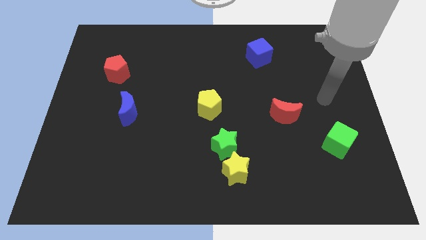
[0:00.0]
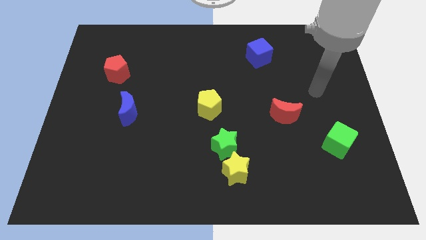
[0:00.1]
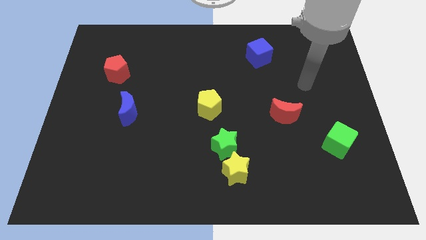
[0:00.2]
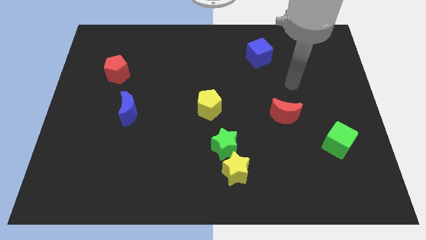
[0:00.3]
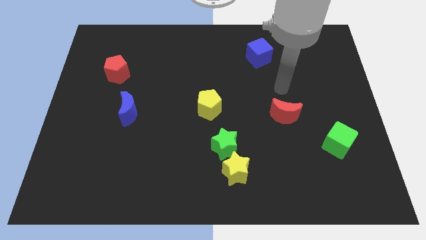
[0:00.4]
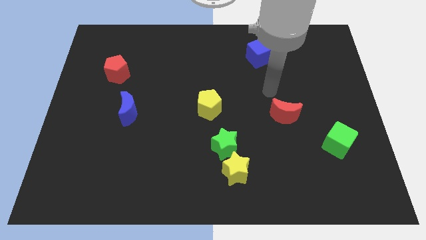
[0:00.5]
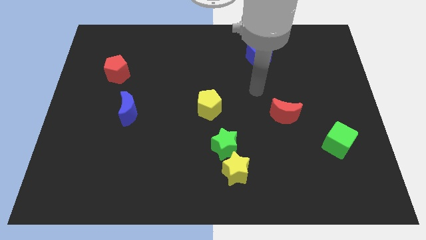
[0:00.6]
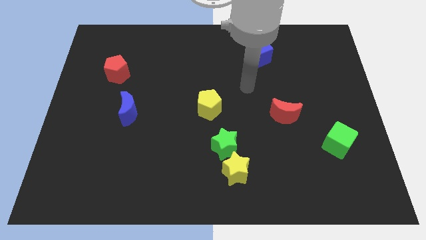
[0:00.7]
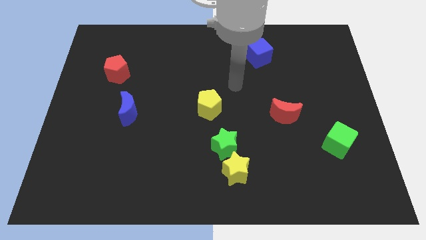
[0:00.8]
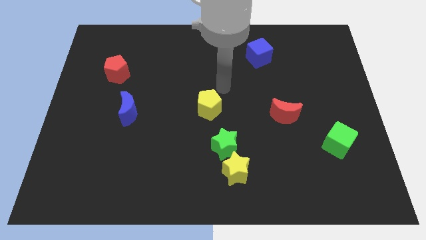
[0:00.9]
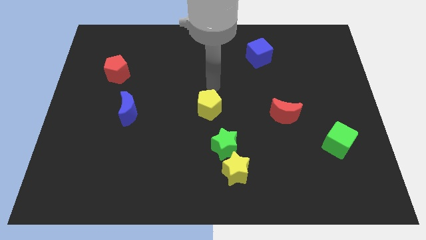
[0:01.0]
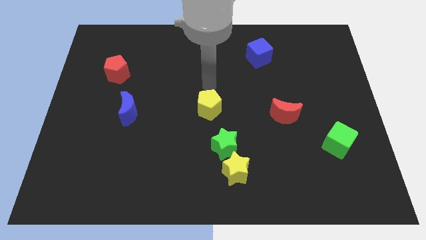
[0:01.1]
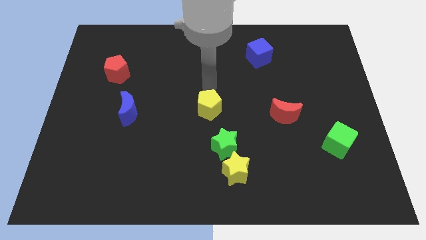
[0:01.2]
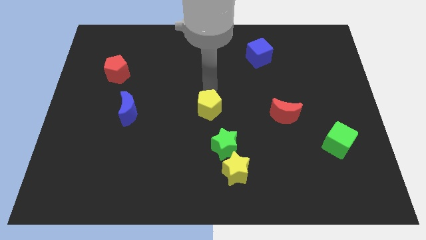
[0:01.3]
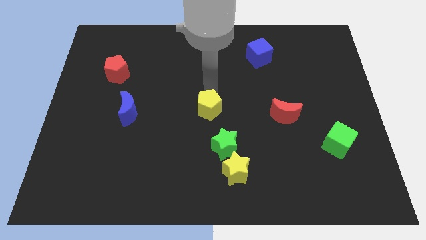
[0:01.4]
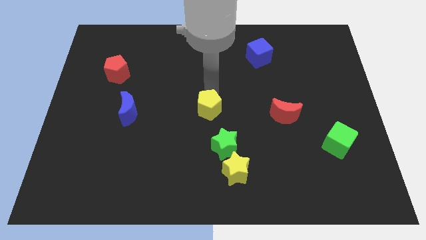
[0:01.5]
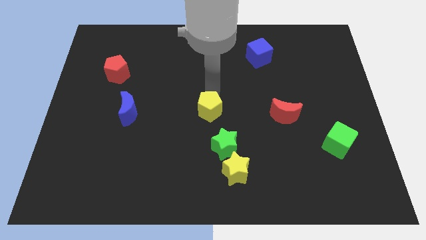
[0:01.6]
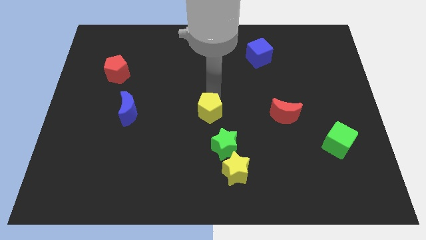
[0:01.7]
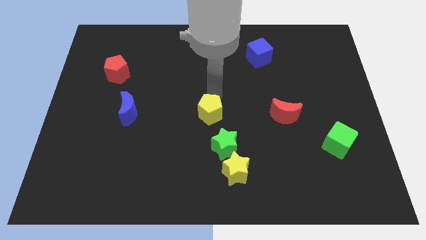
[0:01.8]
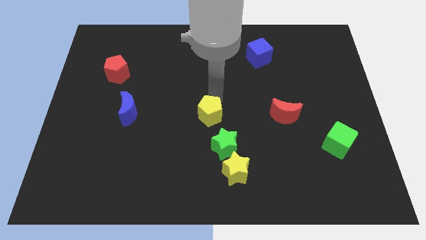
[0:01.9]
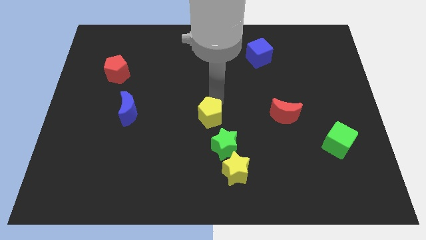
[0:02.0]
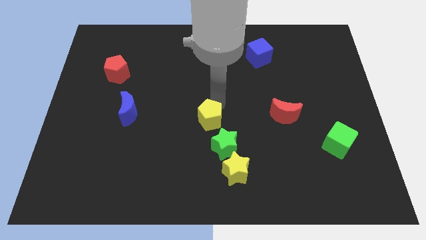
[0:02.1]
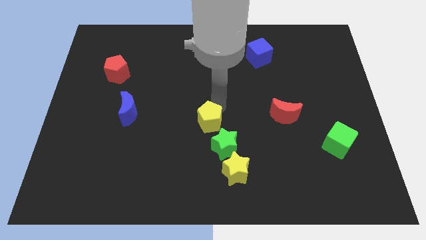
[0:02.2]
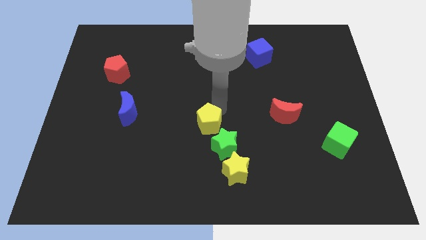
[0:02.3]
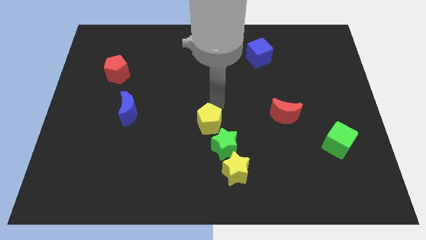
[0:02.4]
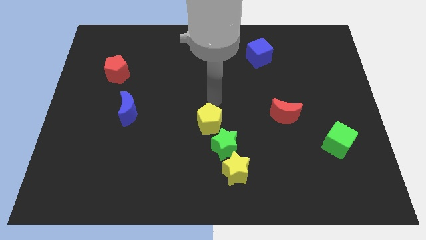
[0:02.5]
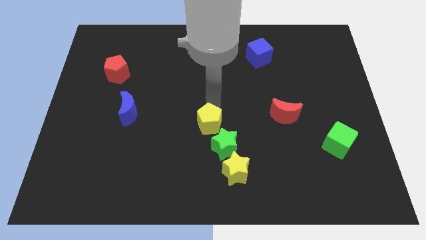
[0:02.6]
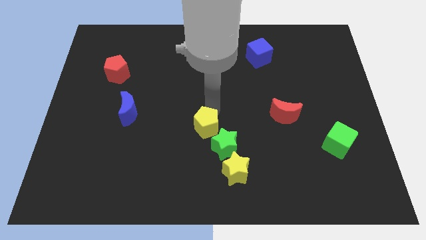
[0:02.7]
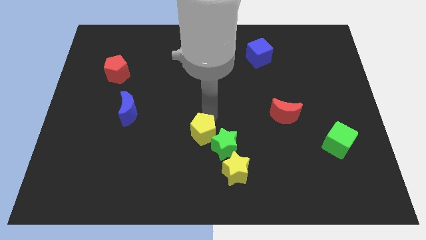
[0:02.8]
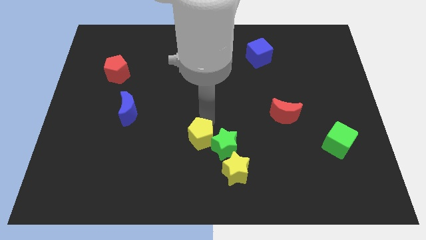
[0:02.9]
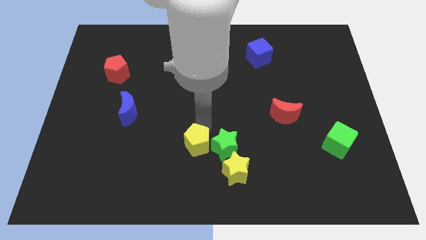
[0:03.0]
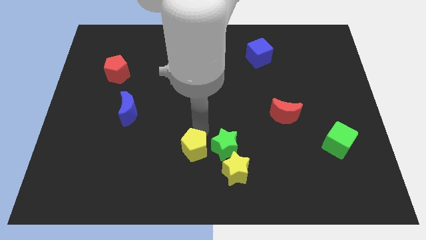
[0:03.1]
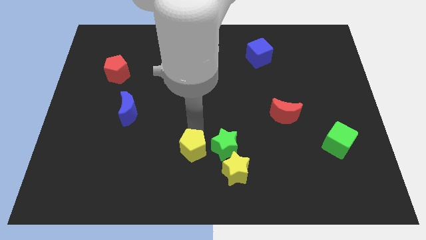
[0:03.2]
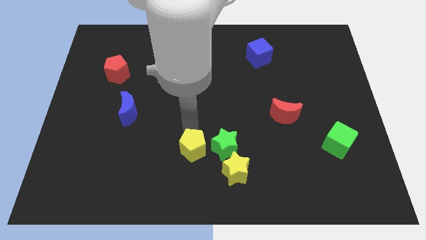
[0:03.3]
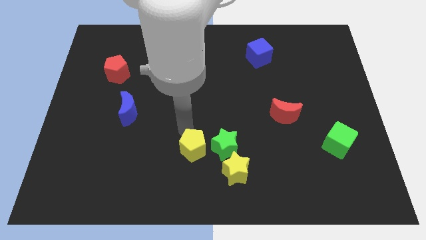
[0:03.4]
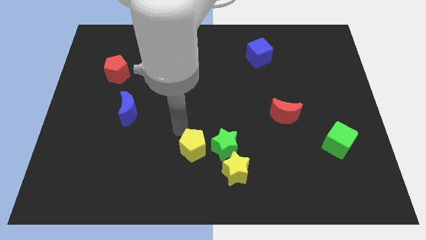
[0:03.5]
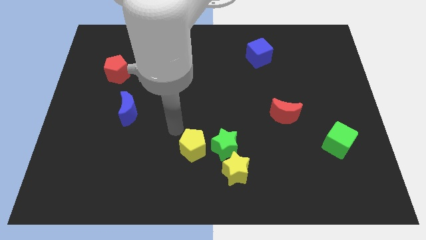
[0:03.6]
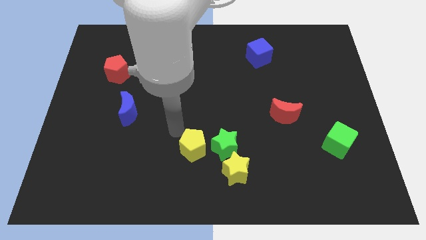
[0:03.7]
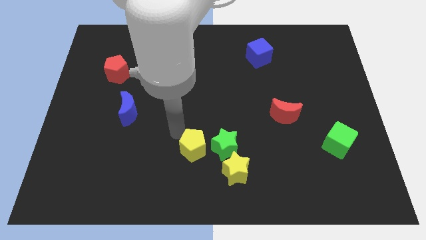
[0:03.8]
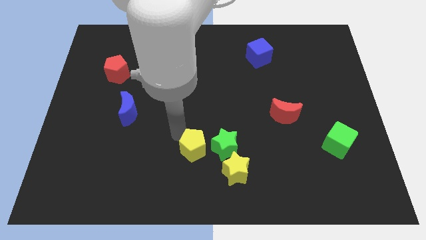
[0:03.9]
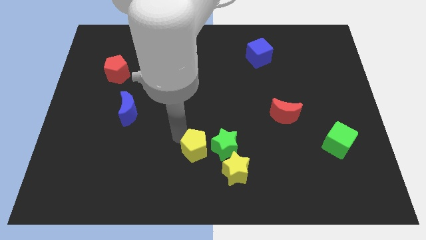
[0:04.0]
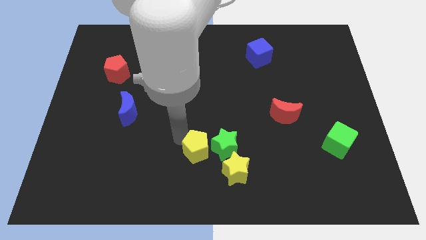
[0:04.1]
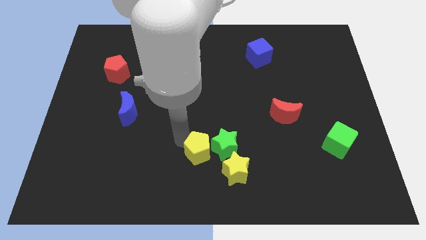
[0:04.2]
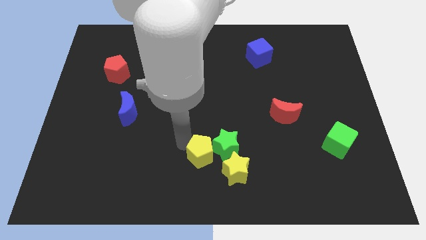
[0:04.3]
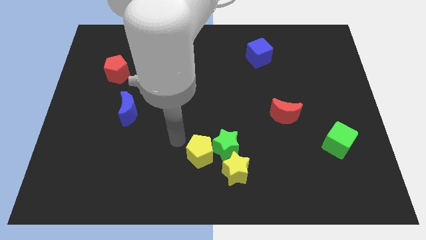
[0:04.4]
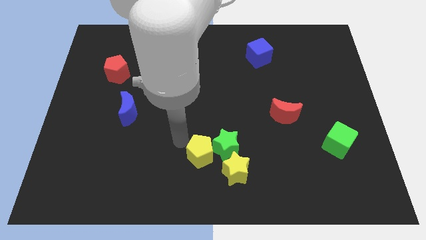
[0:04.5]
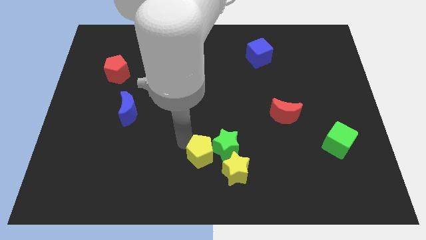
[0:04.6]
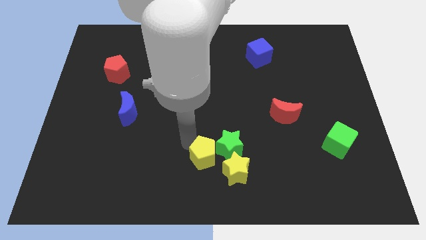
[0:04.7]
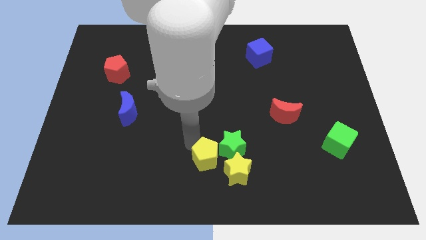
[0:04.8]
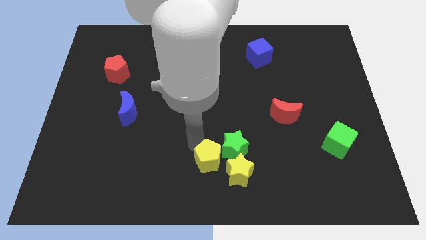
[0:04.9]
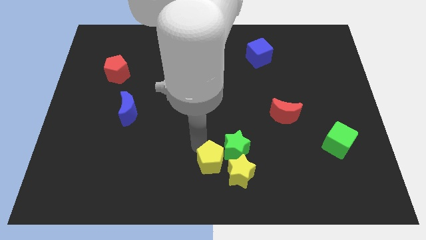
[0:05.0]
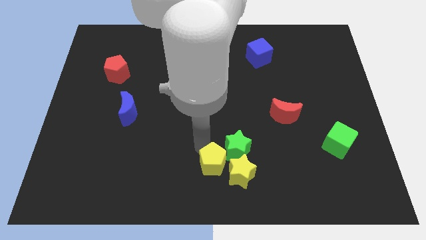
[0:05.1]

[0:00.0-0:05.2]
slide the yellow pentagon close to the yellow star

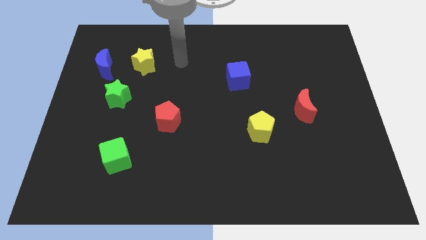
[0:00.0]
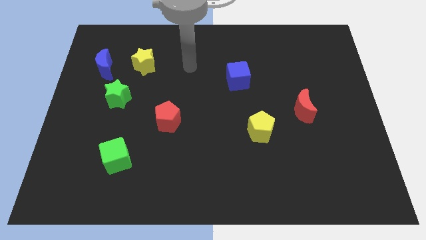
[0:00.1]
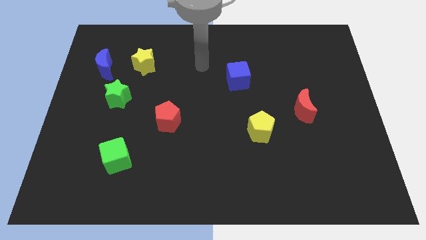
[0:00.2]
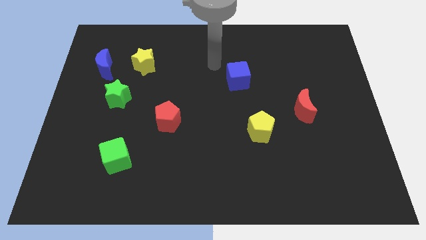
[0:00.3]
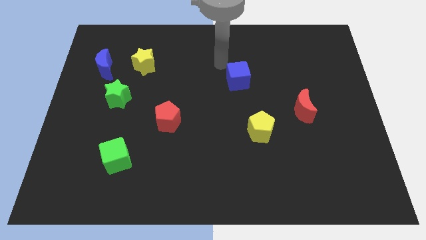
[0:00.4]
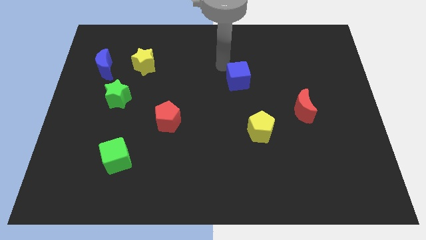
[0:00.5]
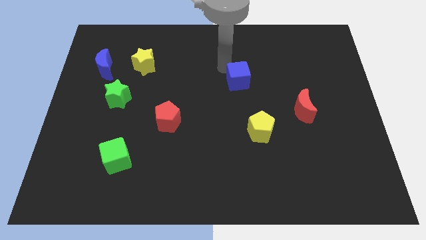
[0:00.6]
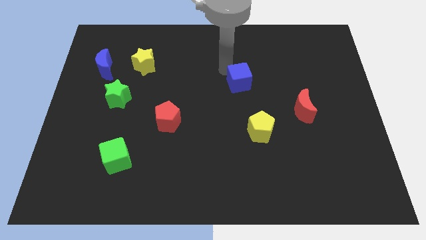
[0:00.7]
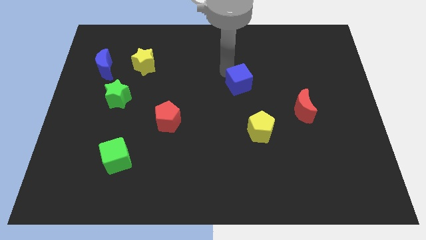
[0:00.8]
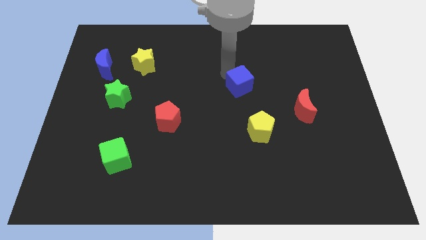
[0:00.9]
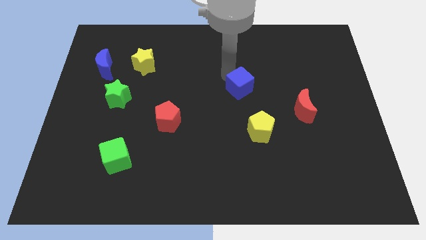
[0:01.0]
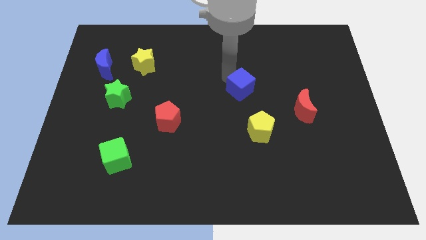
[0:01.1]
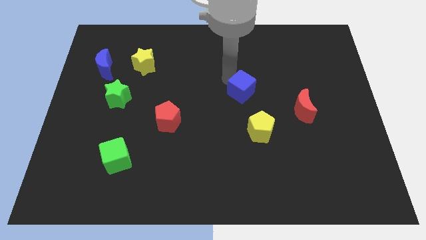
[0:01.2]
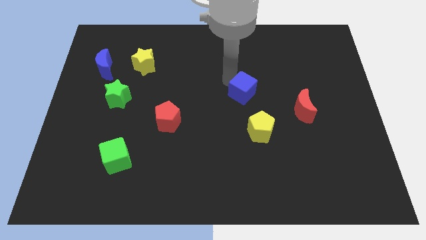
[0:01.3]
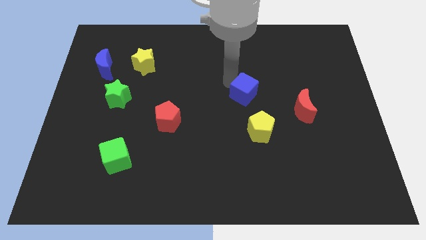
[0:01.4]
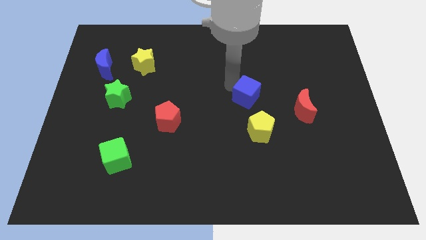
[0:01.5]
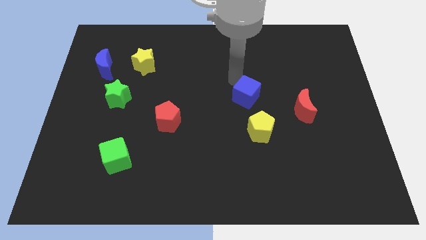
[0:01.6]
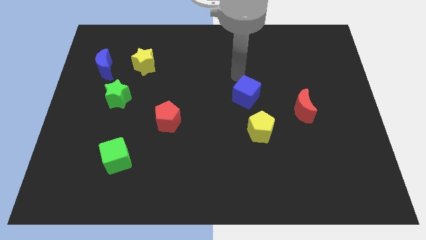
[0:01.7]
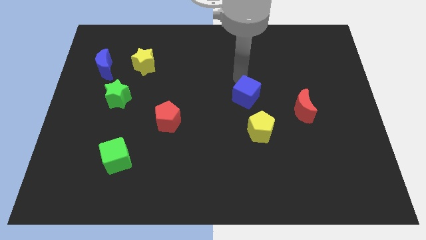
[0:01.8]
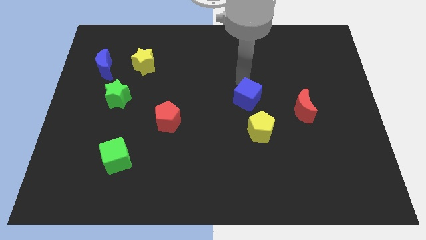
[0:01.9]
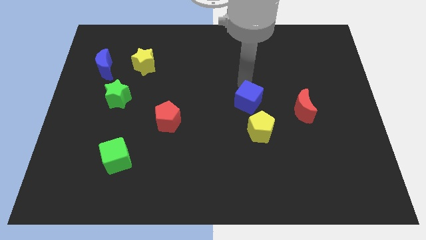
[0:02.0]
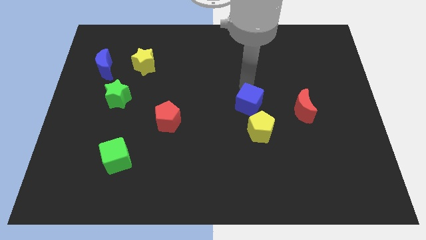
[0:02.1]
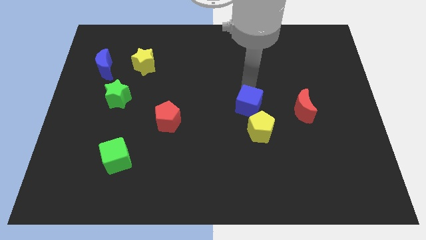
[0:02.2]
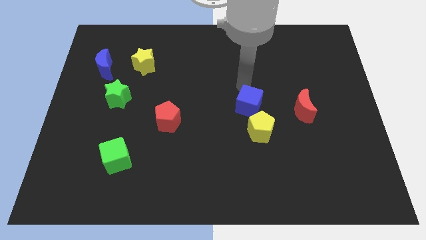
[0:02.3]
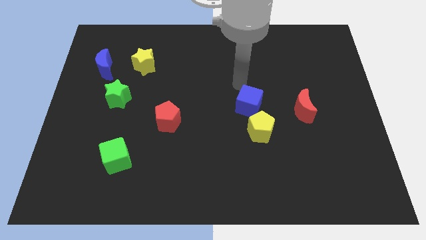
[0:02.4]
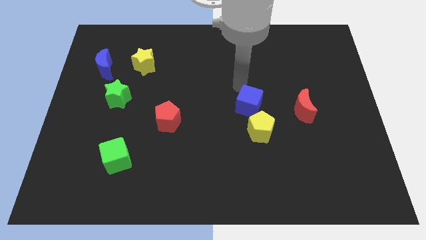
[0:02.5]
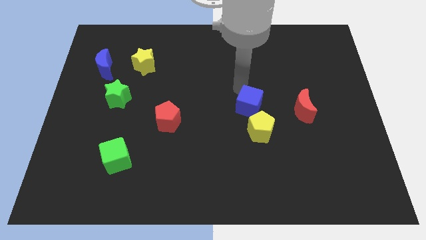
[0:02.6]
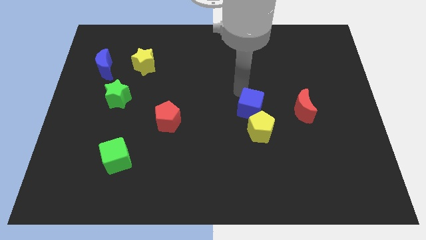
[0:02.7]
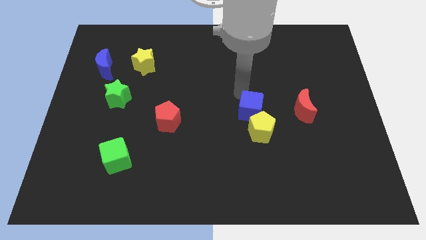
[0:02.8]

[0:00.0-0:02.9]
move the blue cube towards the yellow pentagon

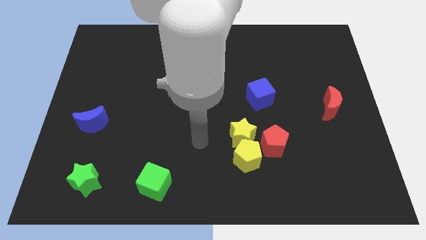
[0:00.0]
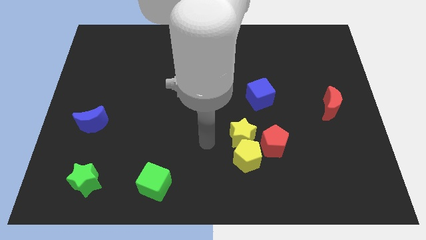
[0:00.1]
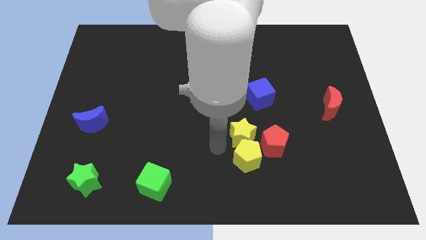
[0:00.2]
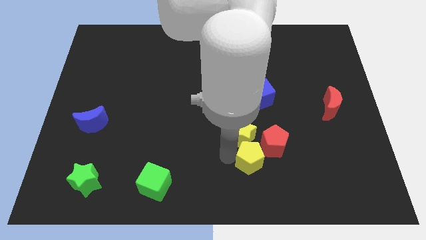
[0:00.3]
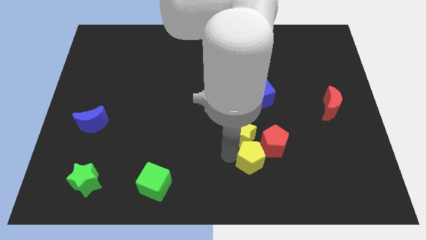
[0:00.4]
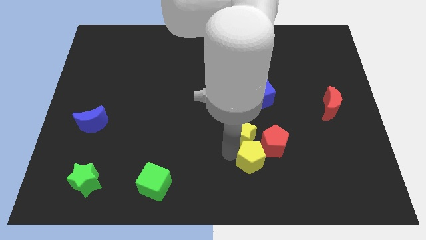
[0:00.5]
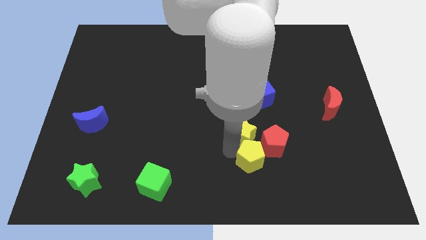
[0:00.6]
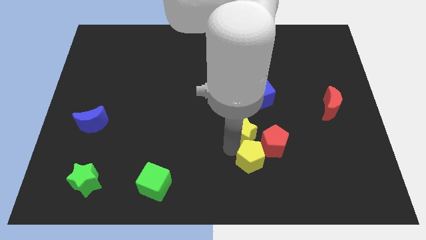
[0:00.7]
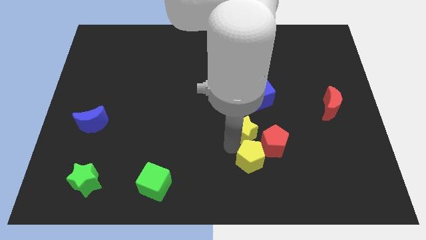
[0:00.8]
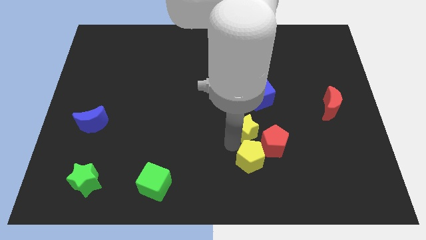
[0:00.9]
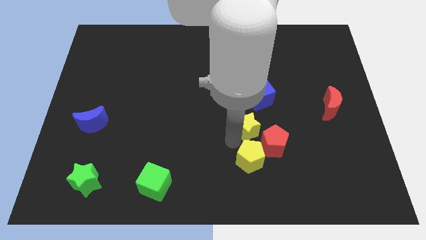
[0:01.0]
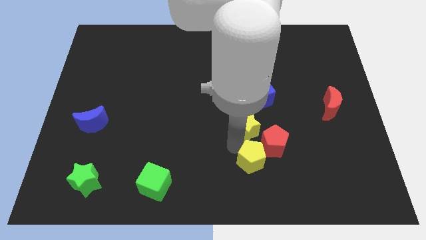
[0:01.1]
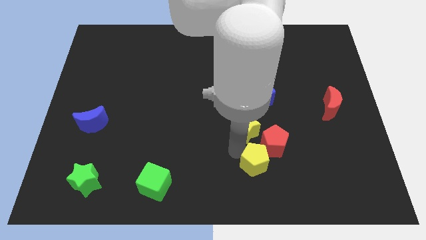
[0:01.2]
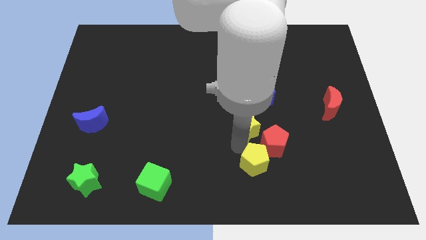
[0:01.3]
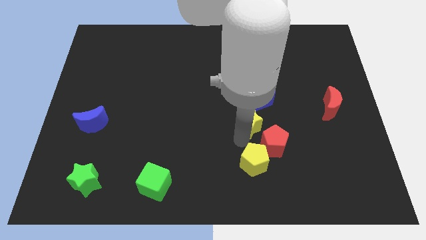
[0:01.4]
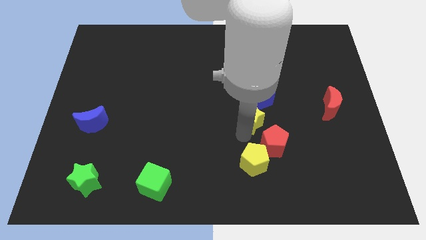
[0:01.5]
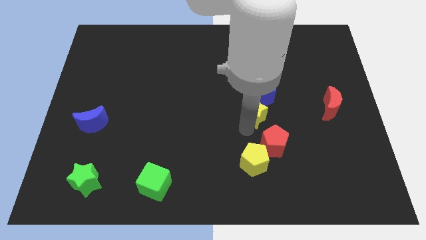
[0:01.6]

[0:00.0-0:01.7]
slide the yellow star to the blue cube
